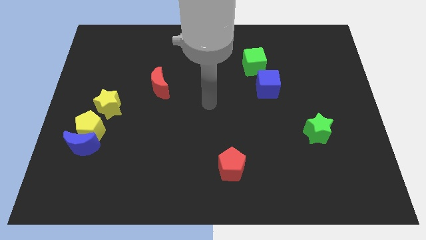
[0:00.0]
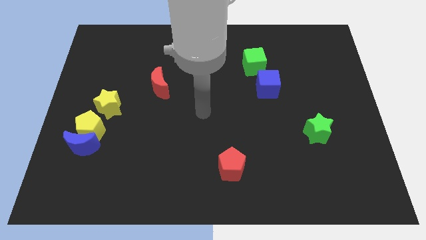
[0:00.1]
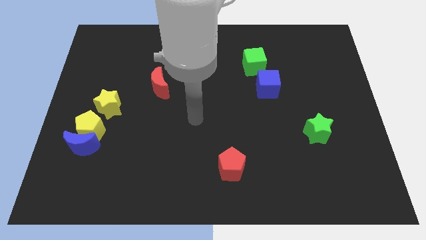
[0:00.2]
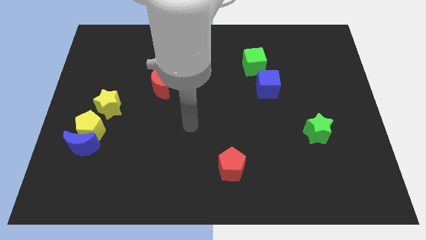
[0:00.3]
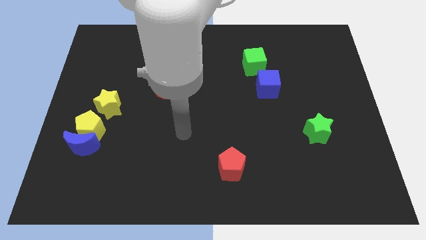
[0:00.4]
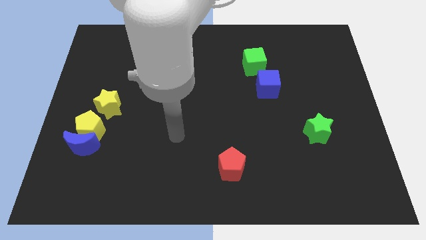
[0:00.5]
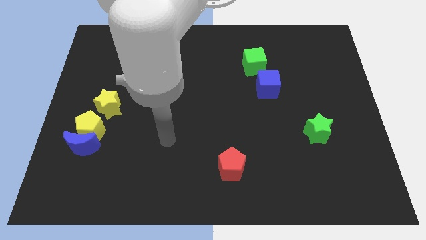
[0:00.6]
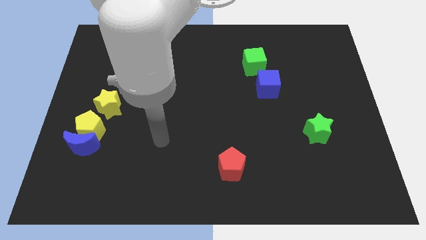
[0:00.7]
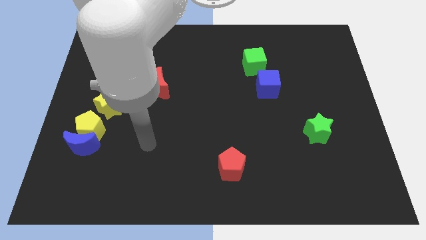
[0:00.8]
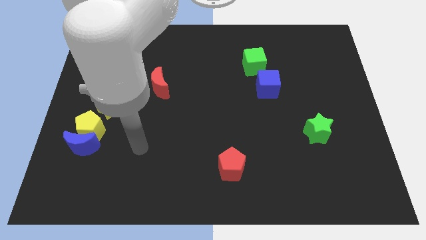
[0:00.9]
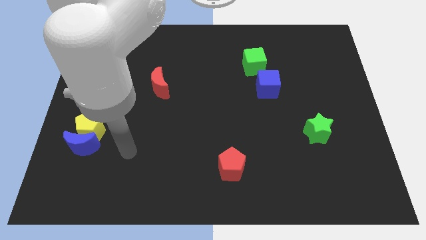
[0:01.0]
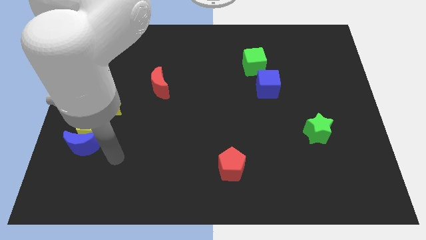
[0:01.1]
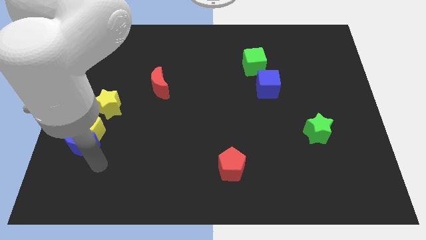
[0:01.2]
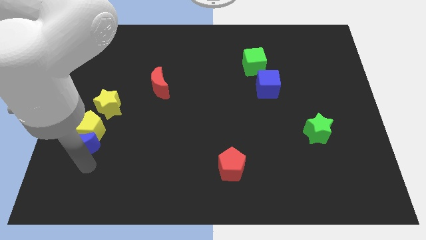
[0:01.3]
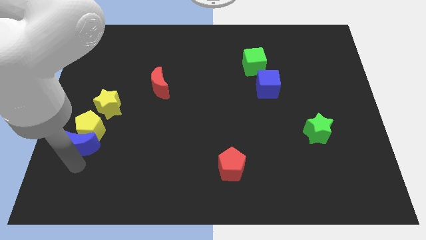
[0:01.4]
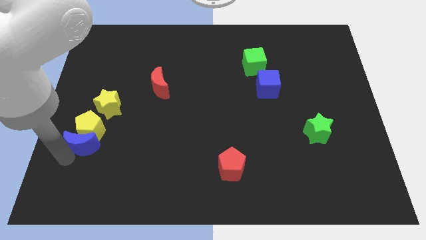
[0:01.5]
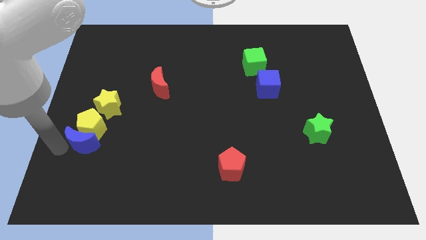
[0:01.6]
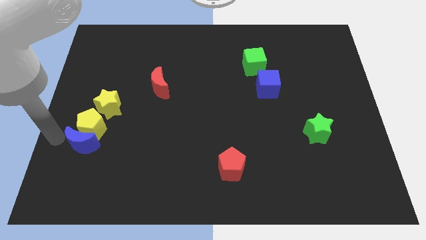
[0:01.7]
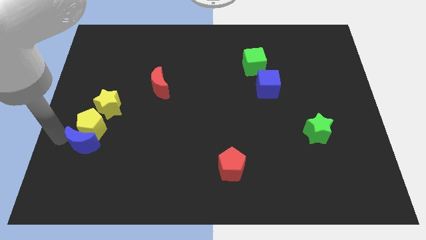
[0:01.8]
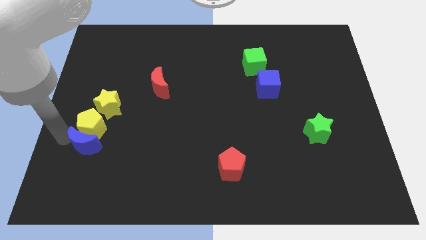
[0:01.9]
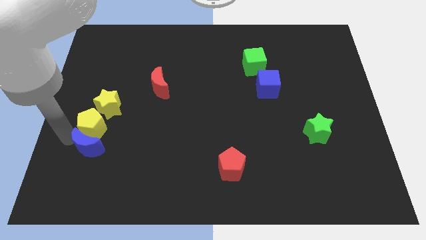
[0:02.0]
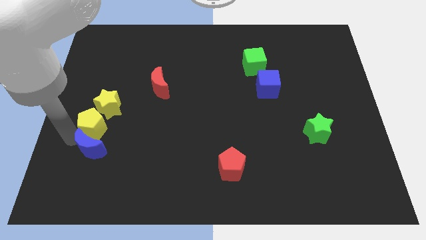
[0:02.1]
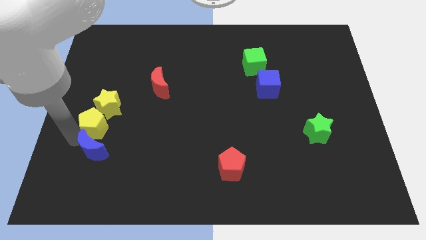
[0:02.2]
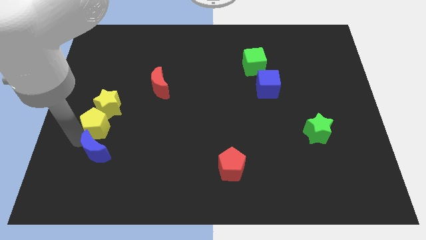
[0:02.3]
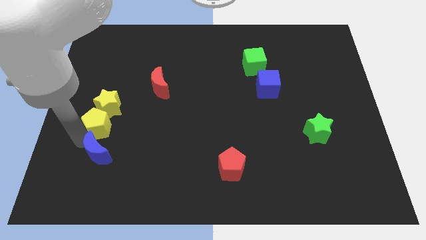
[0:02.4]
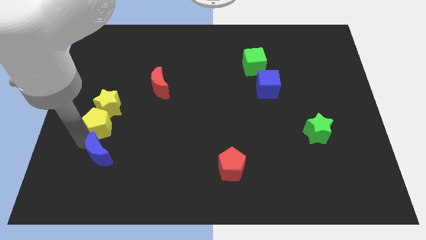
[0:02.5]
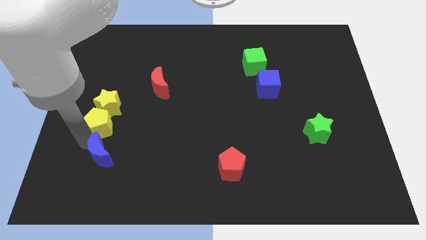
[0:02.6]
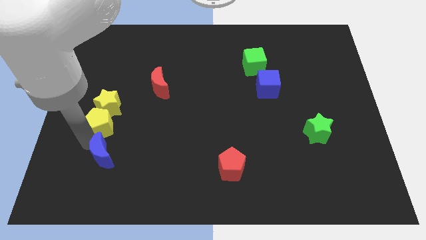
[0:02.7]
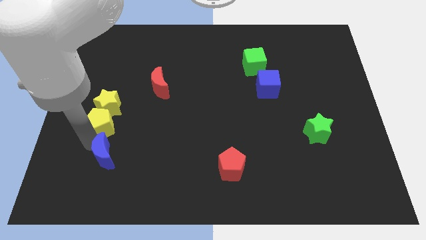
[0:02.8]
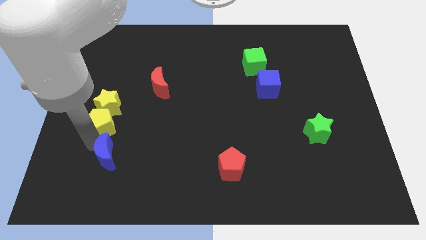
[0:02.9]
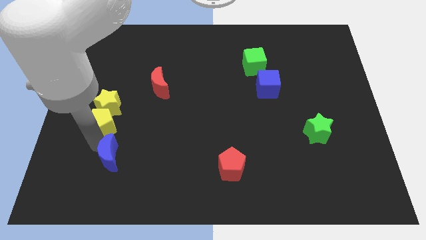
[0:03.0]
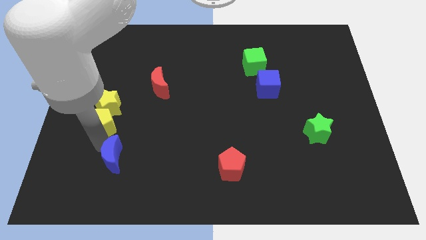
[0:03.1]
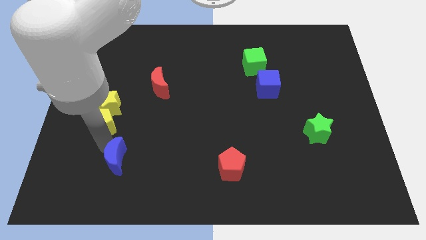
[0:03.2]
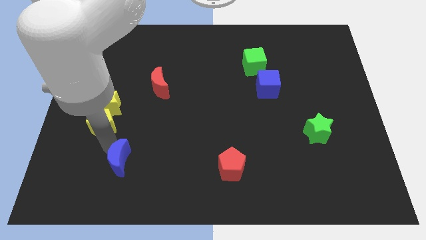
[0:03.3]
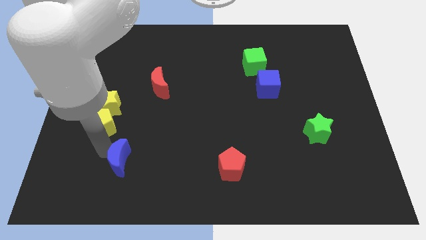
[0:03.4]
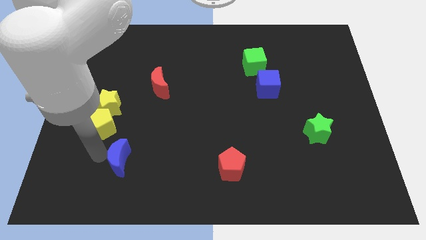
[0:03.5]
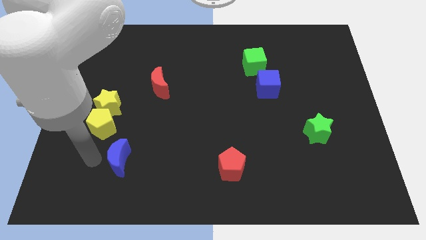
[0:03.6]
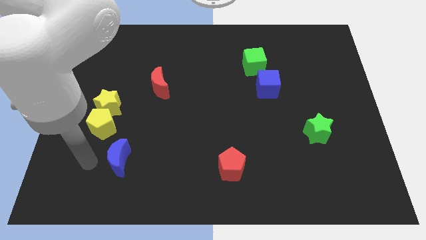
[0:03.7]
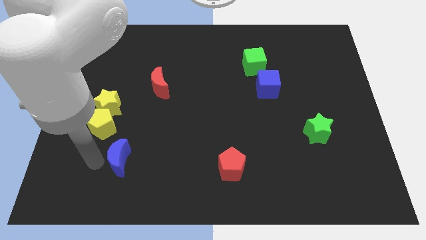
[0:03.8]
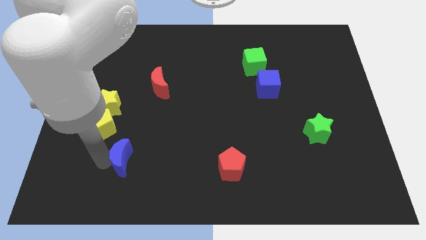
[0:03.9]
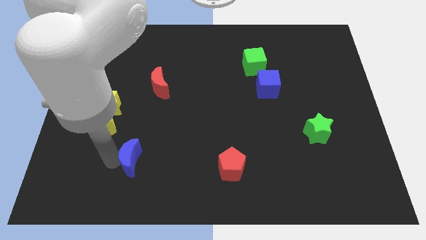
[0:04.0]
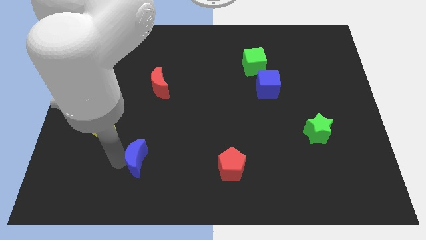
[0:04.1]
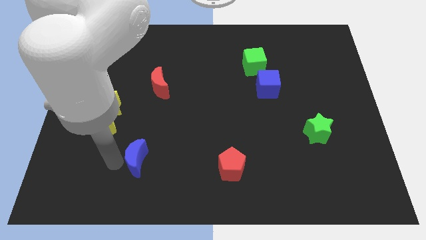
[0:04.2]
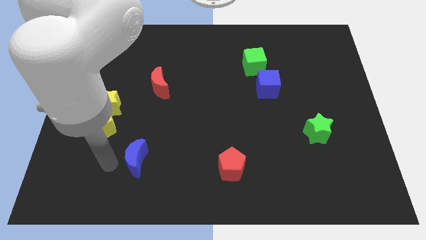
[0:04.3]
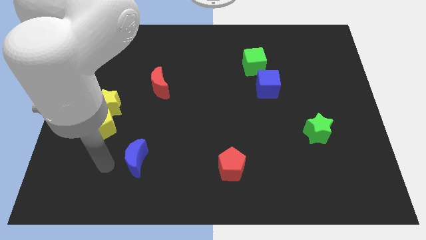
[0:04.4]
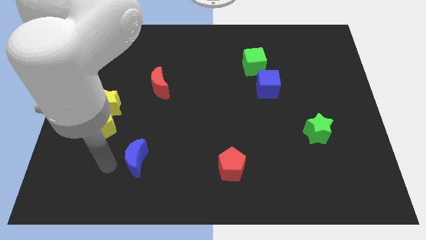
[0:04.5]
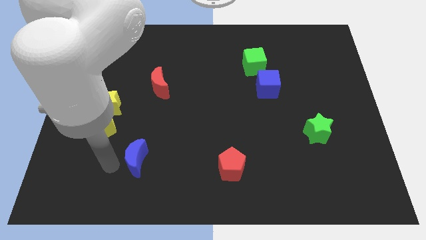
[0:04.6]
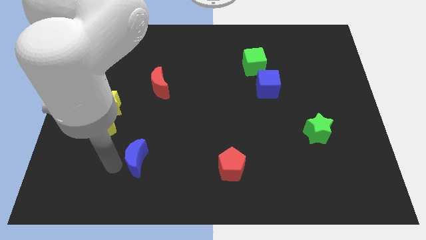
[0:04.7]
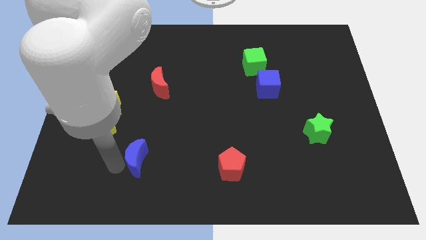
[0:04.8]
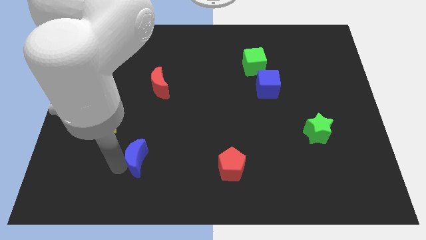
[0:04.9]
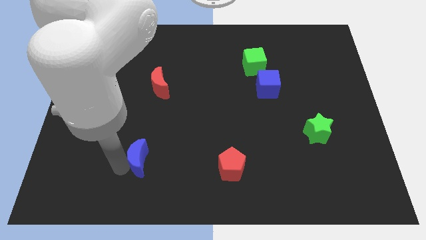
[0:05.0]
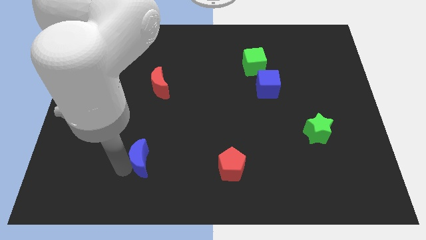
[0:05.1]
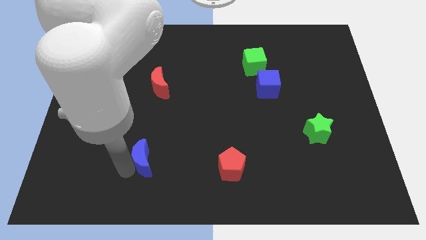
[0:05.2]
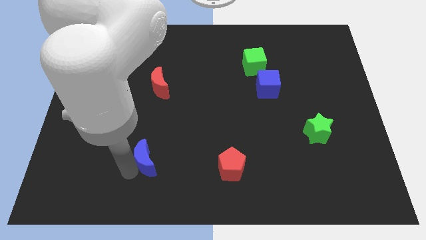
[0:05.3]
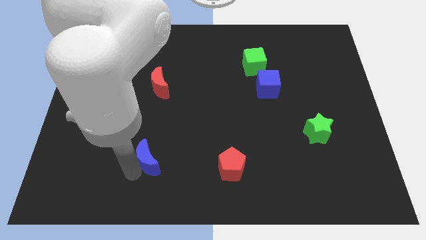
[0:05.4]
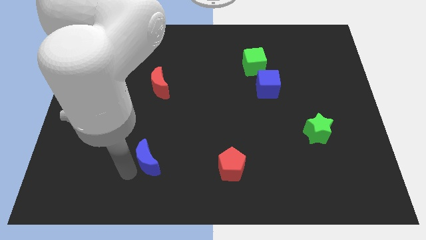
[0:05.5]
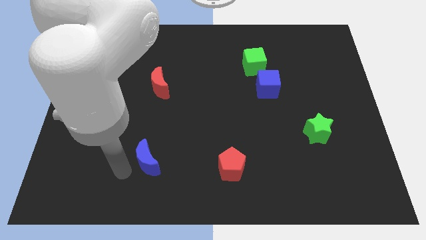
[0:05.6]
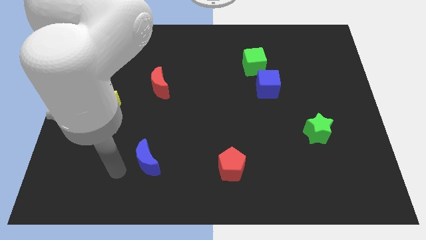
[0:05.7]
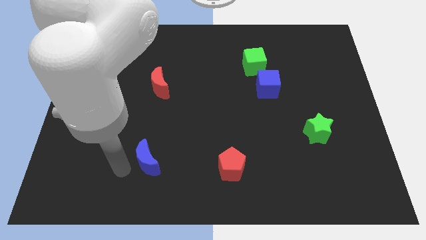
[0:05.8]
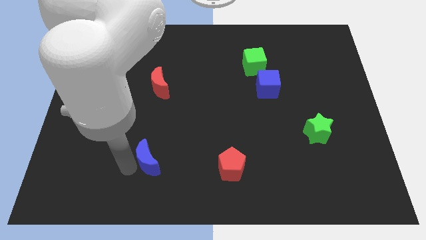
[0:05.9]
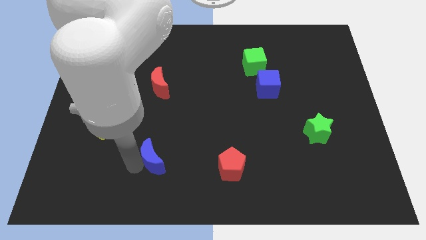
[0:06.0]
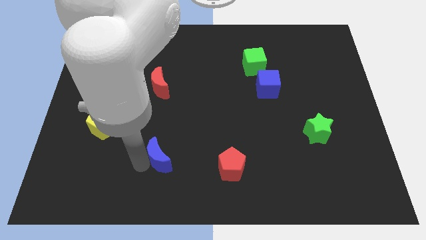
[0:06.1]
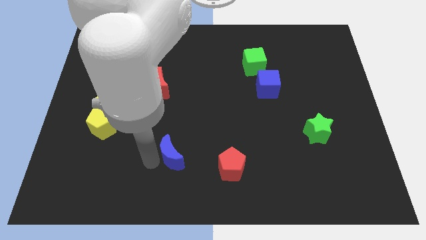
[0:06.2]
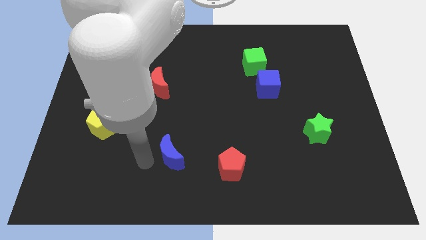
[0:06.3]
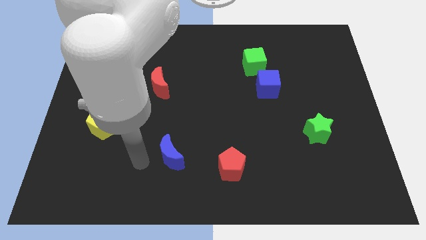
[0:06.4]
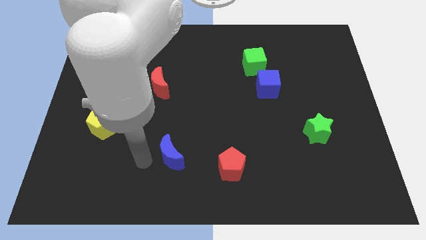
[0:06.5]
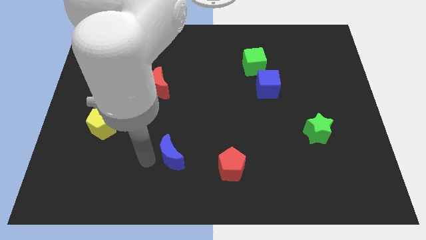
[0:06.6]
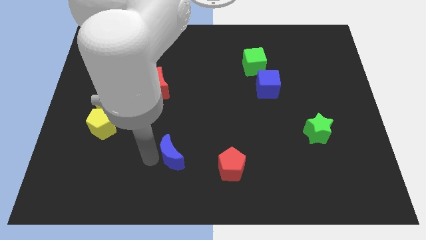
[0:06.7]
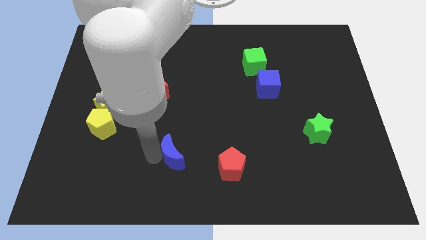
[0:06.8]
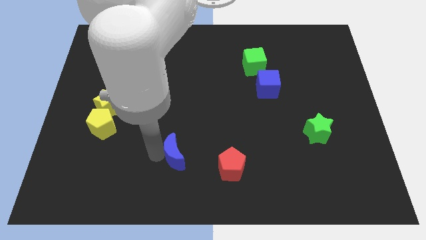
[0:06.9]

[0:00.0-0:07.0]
move the blue moon right

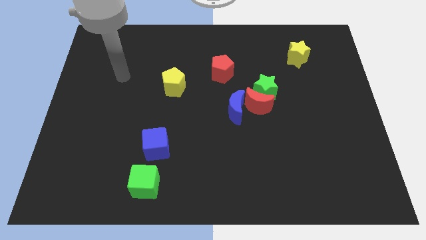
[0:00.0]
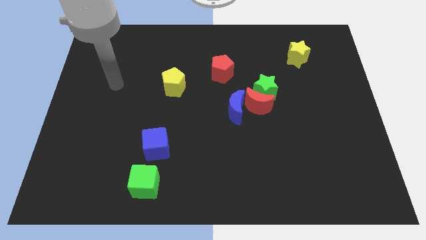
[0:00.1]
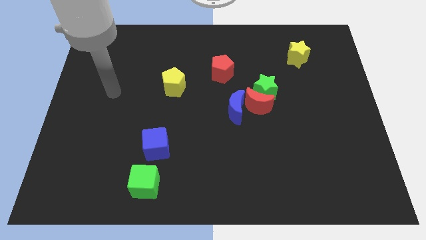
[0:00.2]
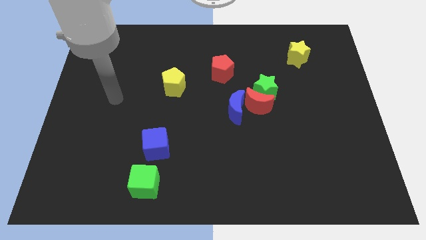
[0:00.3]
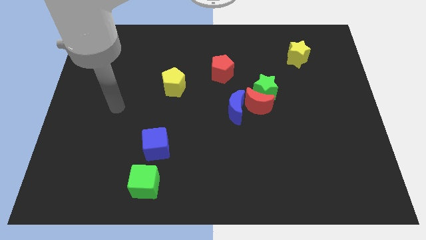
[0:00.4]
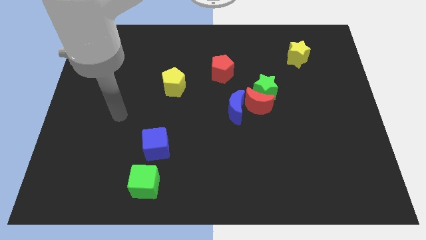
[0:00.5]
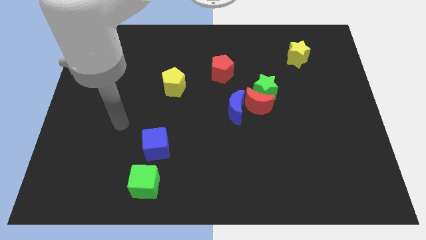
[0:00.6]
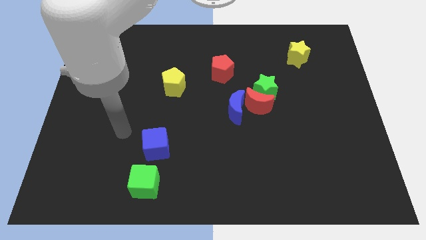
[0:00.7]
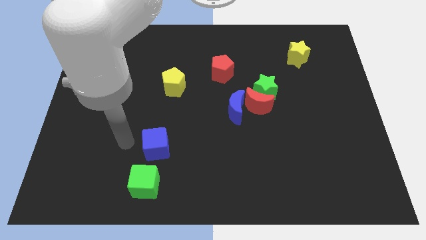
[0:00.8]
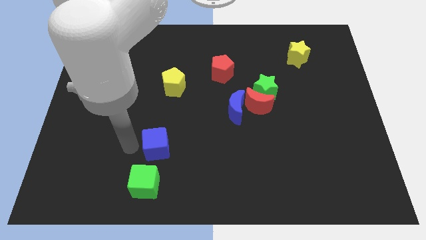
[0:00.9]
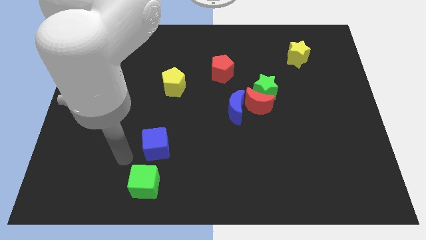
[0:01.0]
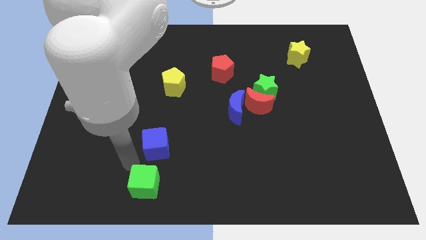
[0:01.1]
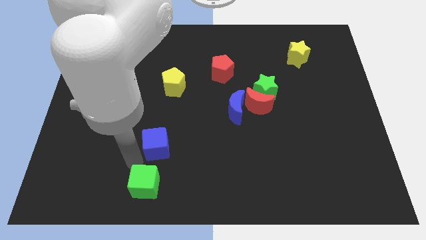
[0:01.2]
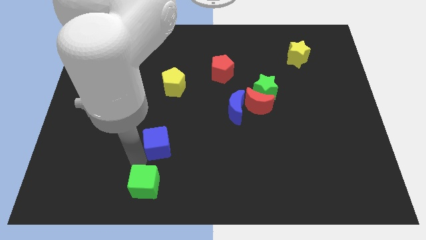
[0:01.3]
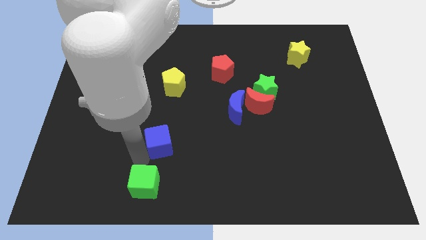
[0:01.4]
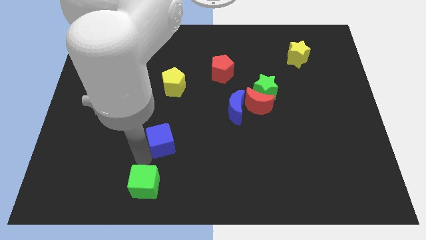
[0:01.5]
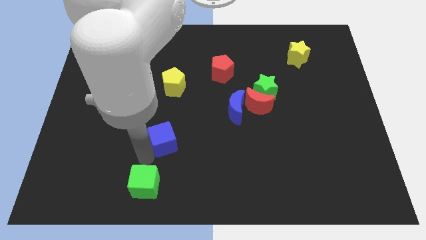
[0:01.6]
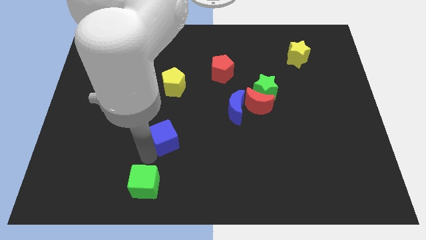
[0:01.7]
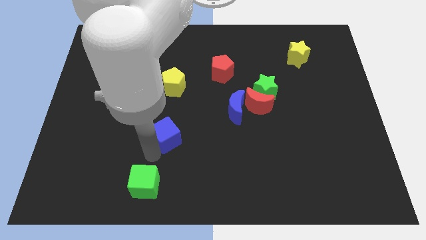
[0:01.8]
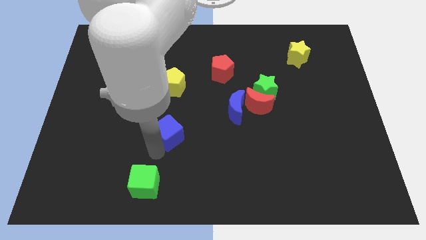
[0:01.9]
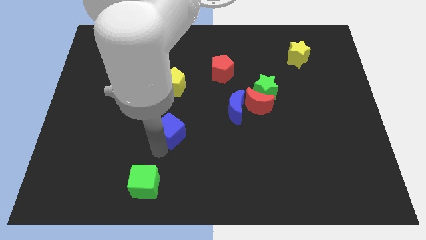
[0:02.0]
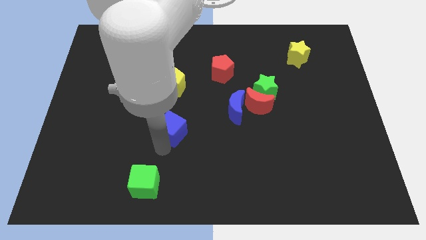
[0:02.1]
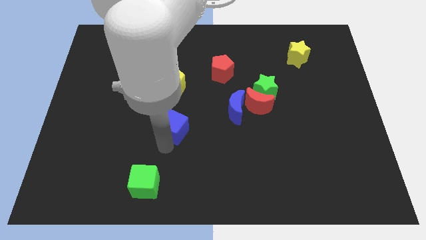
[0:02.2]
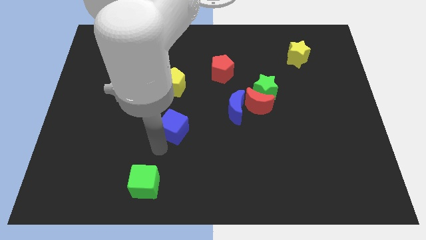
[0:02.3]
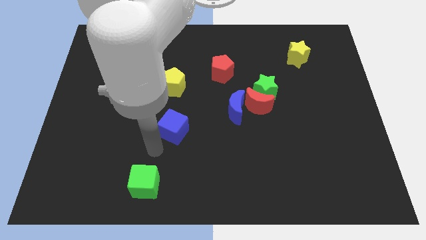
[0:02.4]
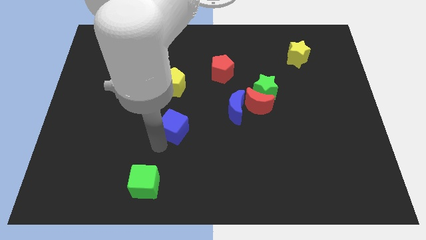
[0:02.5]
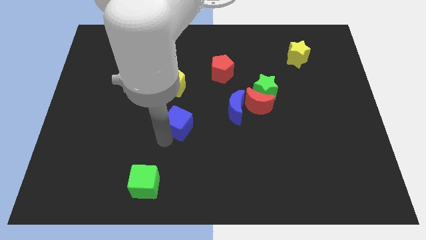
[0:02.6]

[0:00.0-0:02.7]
slide the blue cube a little bit diagonally upwards and to the right
